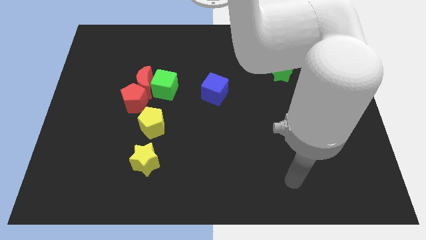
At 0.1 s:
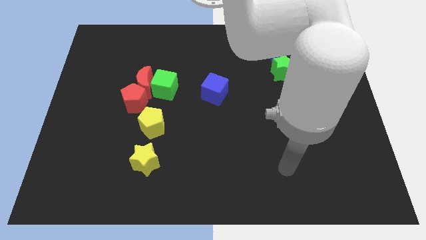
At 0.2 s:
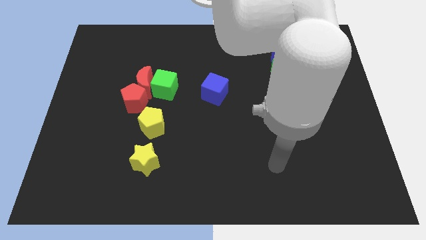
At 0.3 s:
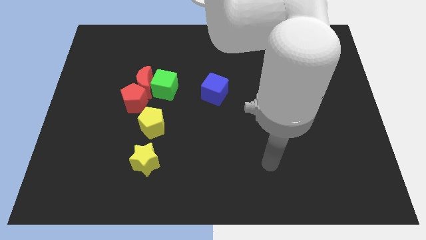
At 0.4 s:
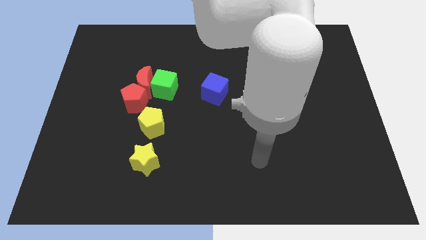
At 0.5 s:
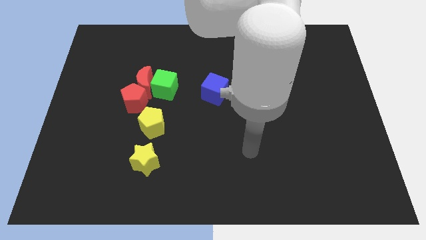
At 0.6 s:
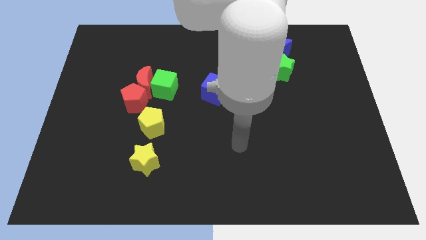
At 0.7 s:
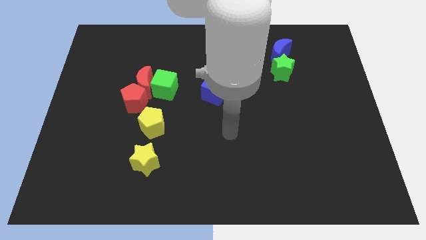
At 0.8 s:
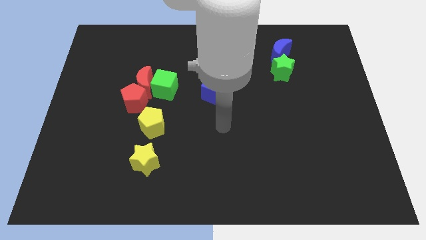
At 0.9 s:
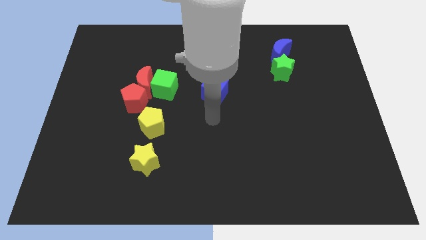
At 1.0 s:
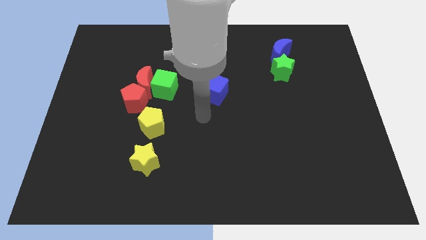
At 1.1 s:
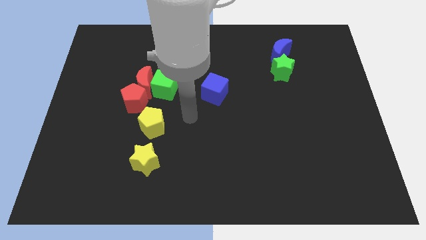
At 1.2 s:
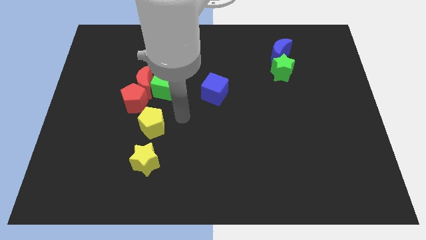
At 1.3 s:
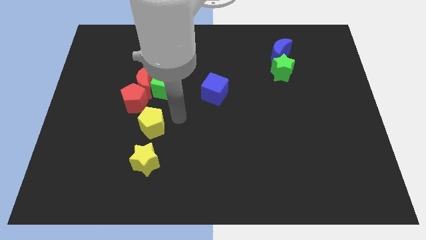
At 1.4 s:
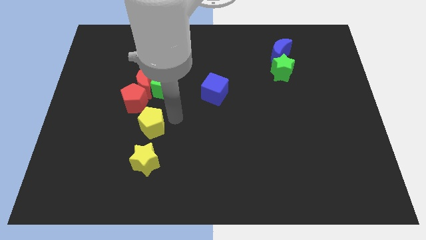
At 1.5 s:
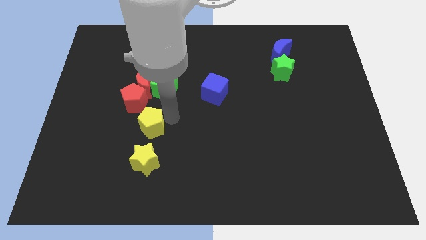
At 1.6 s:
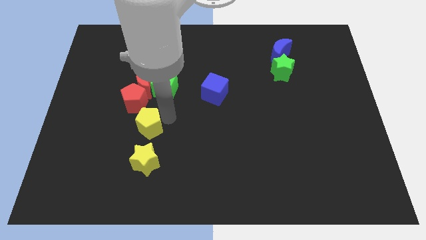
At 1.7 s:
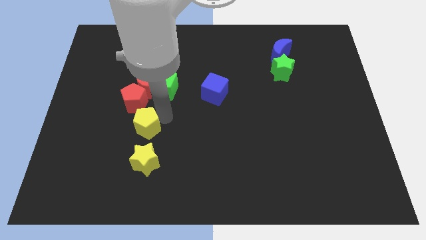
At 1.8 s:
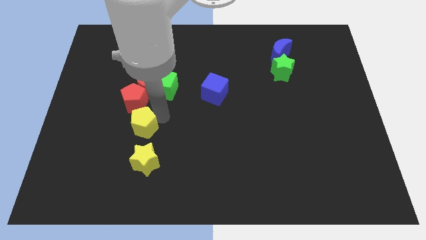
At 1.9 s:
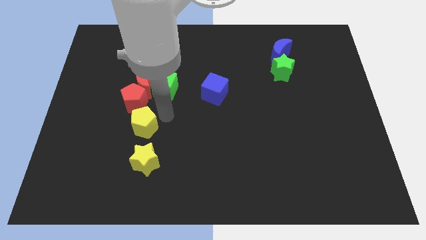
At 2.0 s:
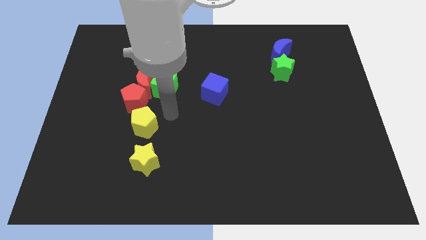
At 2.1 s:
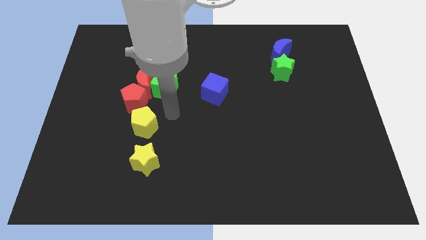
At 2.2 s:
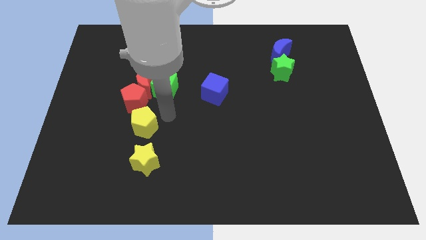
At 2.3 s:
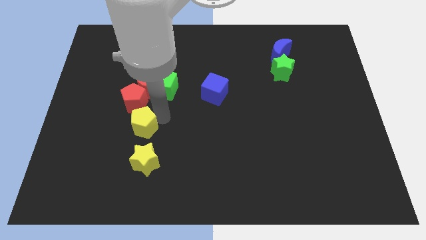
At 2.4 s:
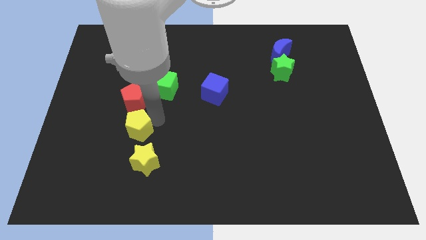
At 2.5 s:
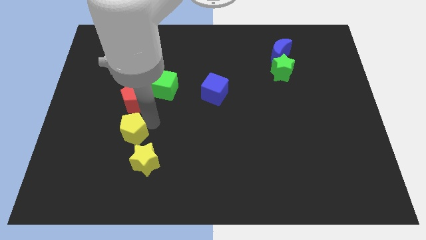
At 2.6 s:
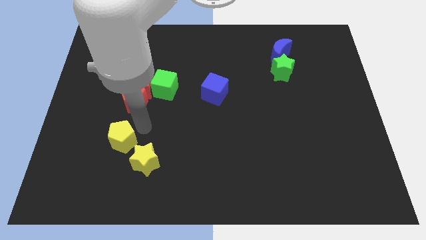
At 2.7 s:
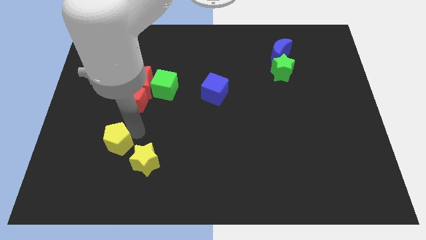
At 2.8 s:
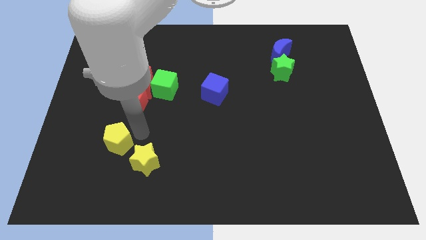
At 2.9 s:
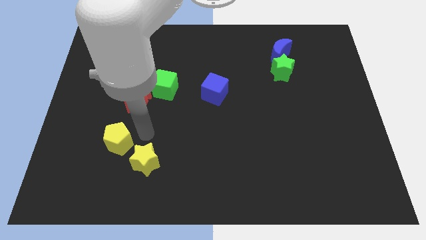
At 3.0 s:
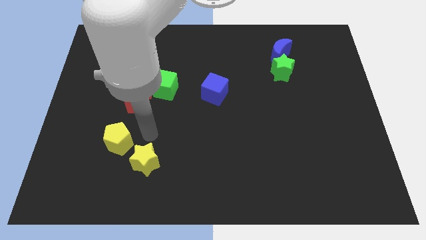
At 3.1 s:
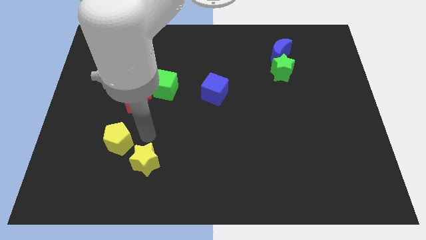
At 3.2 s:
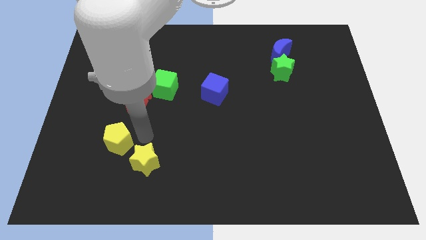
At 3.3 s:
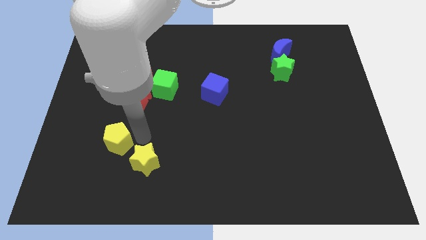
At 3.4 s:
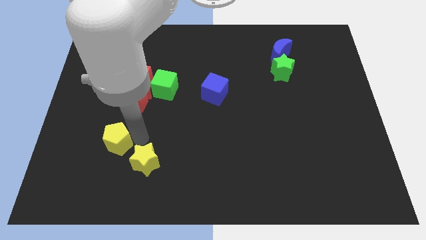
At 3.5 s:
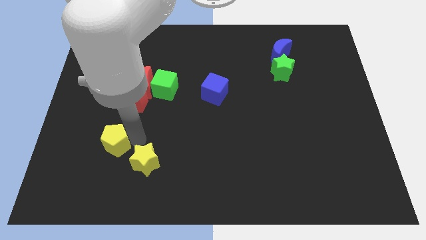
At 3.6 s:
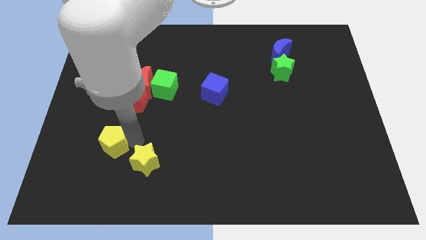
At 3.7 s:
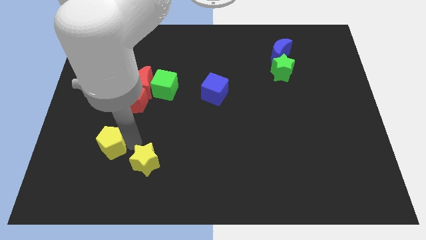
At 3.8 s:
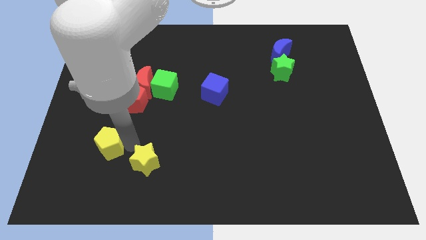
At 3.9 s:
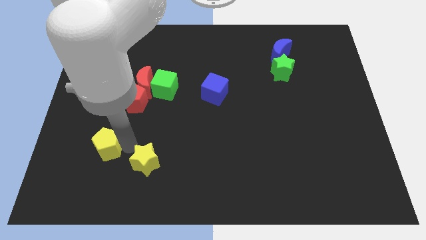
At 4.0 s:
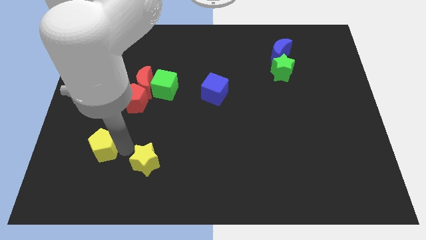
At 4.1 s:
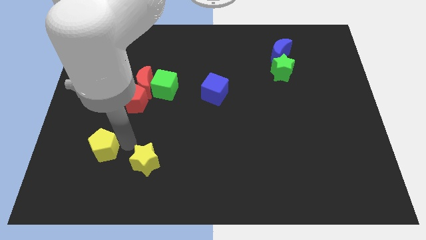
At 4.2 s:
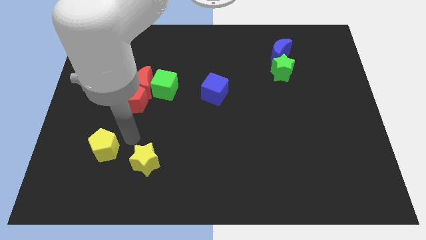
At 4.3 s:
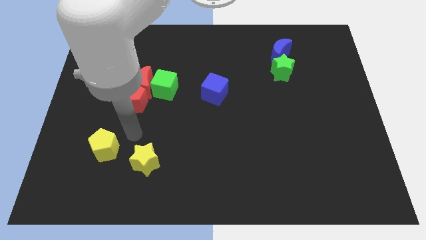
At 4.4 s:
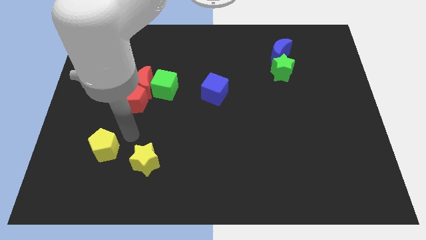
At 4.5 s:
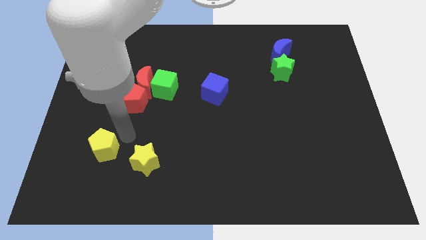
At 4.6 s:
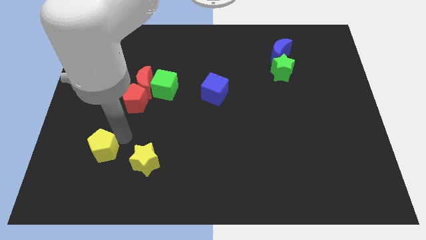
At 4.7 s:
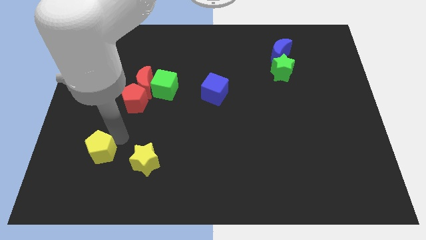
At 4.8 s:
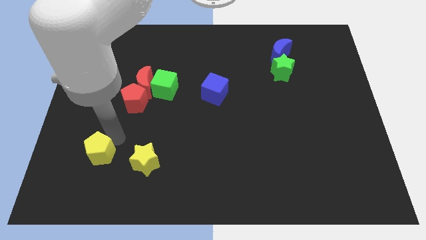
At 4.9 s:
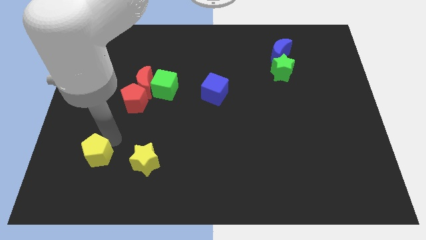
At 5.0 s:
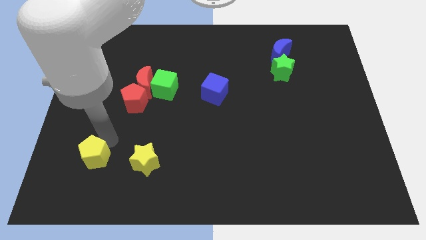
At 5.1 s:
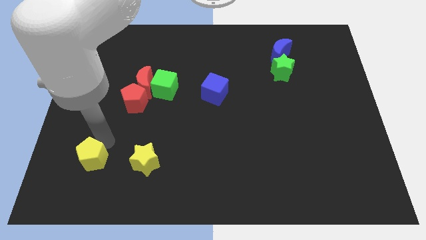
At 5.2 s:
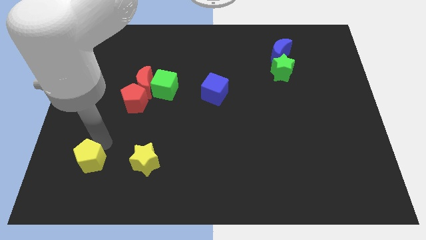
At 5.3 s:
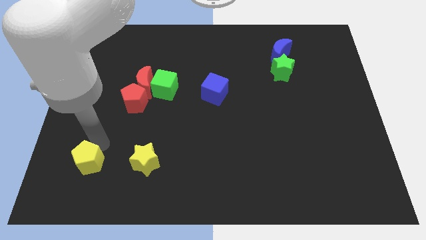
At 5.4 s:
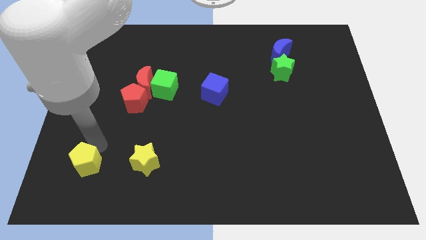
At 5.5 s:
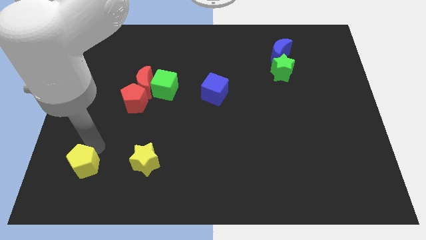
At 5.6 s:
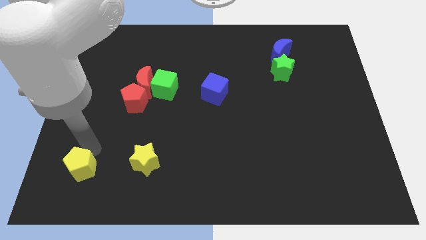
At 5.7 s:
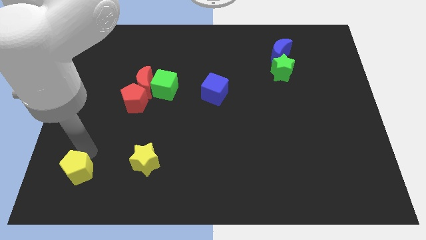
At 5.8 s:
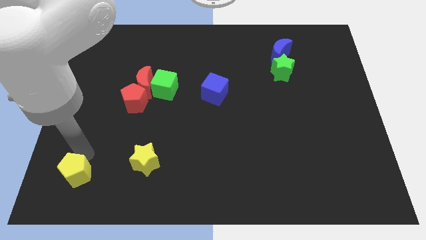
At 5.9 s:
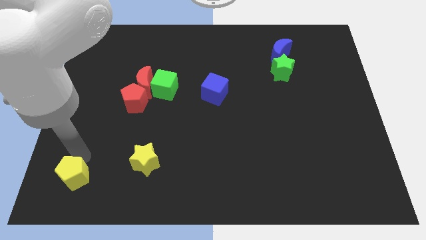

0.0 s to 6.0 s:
move the yellow pentagon to the bottom left of the board

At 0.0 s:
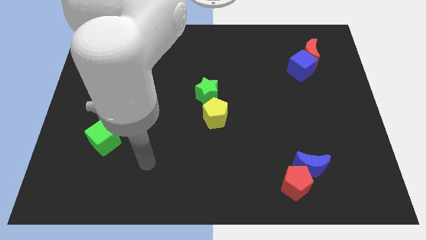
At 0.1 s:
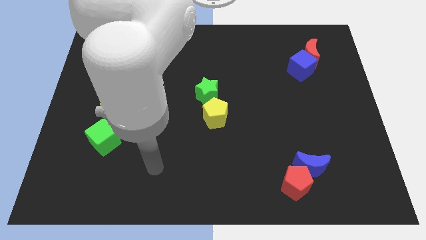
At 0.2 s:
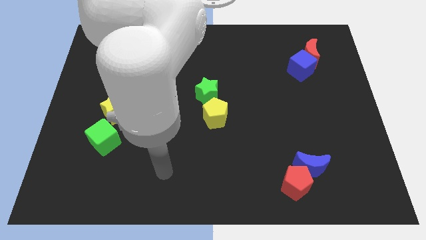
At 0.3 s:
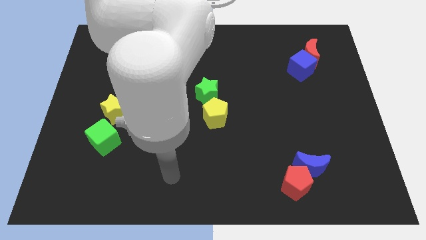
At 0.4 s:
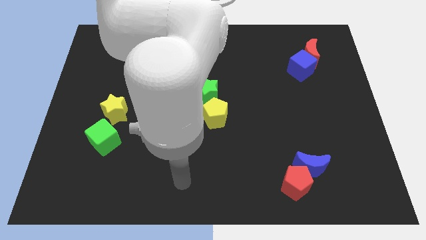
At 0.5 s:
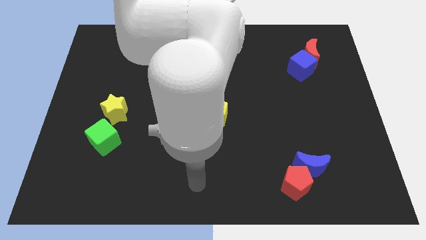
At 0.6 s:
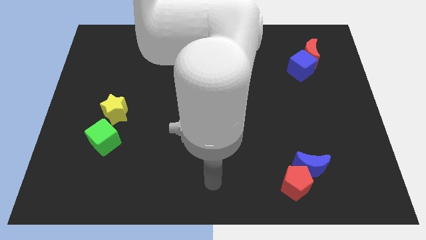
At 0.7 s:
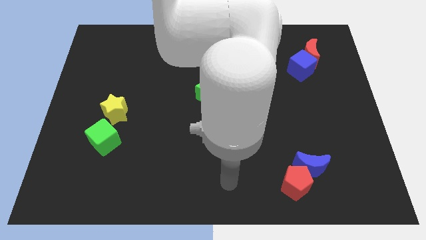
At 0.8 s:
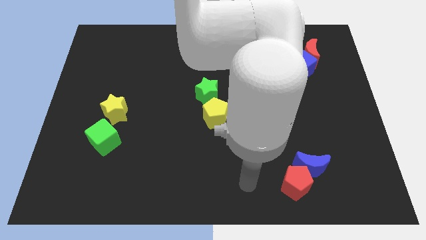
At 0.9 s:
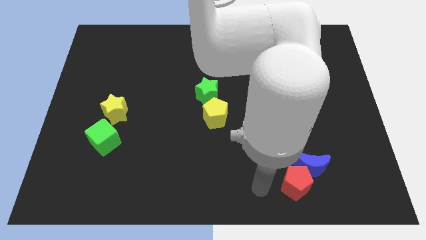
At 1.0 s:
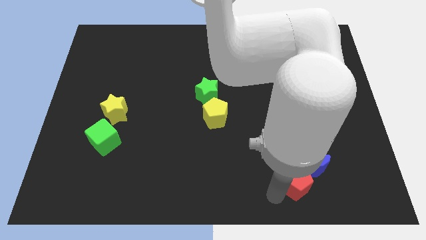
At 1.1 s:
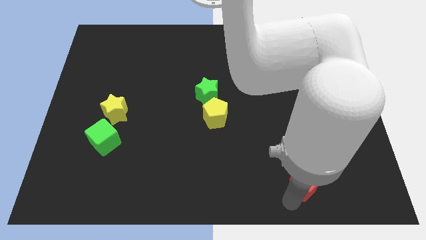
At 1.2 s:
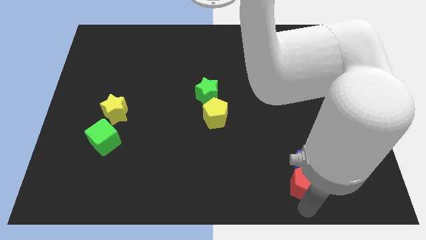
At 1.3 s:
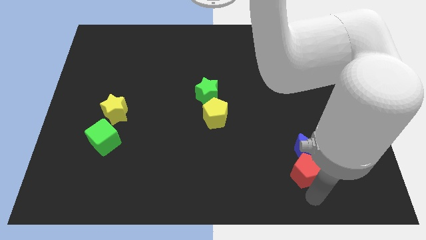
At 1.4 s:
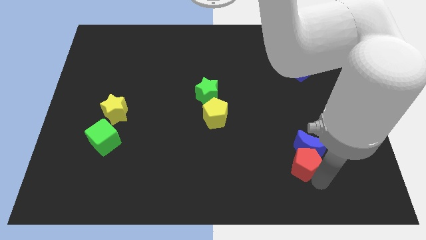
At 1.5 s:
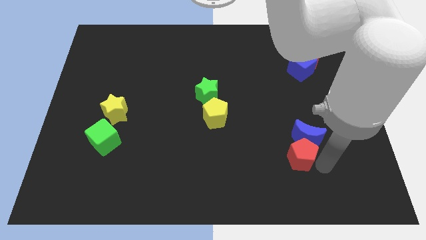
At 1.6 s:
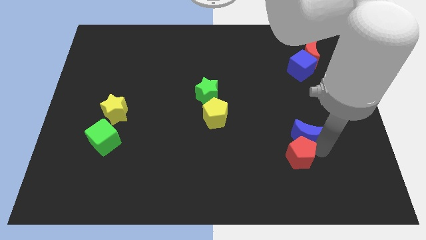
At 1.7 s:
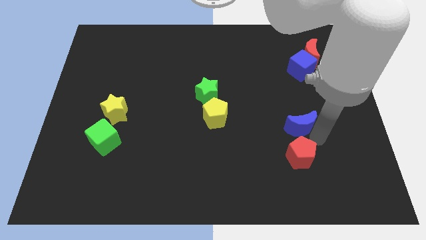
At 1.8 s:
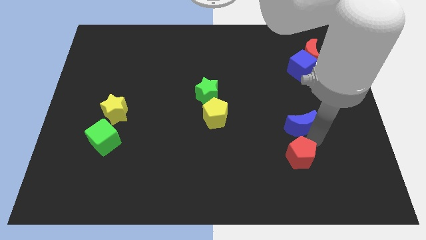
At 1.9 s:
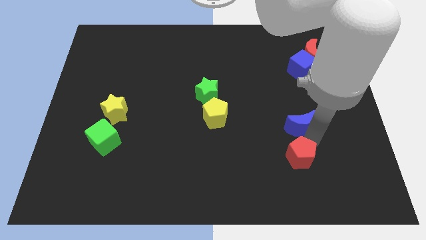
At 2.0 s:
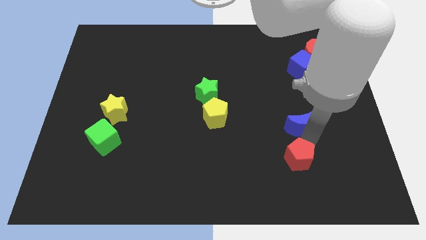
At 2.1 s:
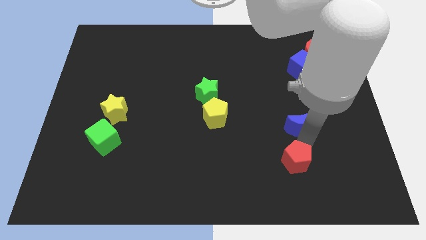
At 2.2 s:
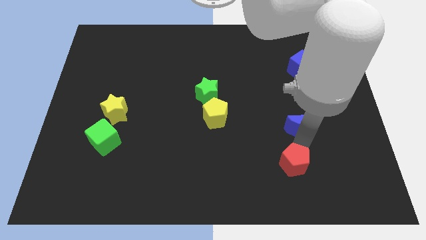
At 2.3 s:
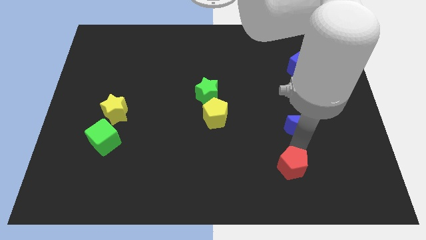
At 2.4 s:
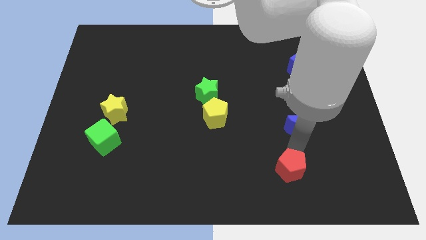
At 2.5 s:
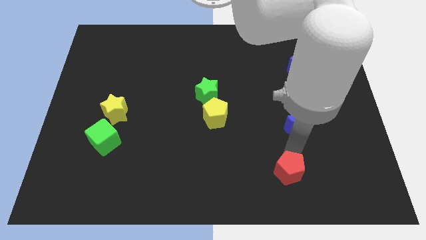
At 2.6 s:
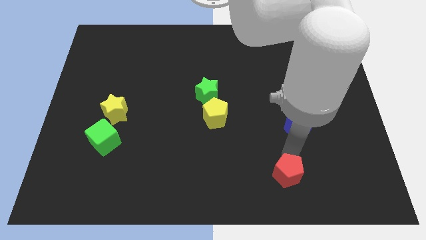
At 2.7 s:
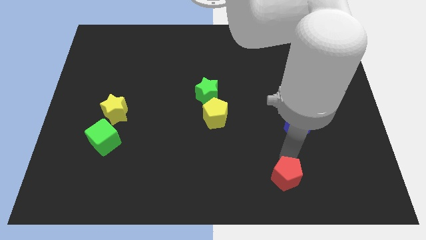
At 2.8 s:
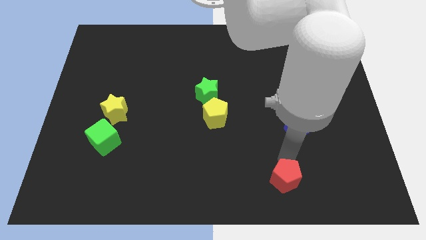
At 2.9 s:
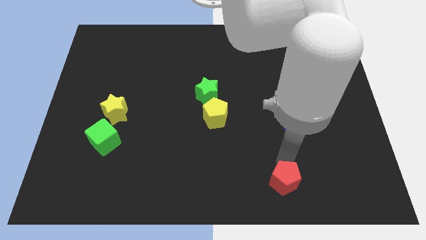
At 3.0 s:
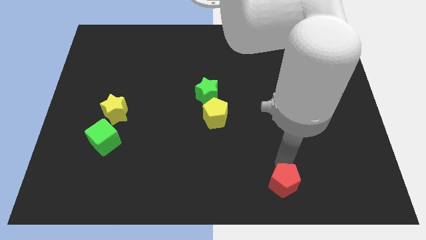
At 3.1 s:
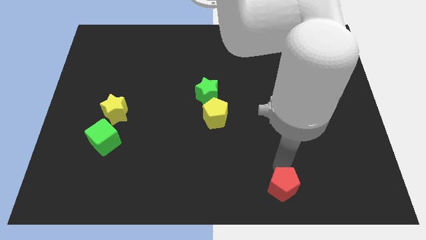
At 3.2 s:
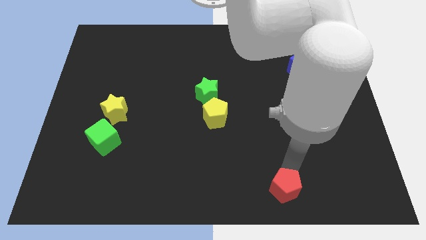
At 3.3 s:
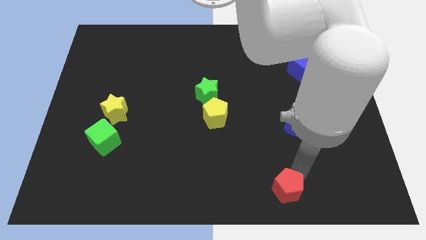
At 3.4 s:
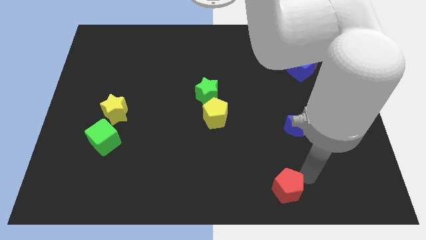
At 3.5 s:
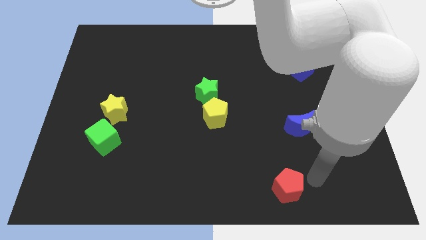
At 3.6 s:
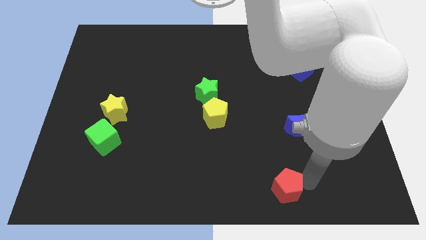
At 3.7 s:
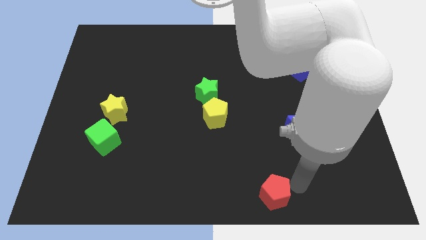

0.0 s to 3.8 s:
slide the red pentagon to the bottom
